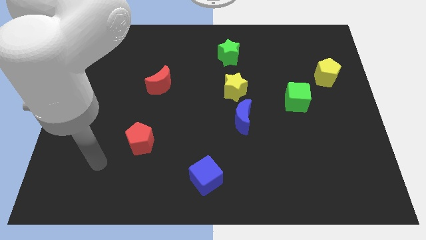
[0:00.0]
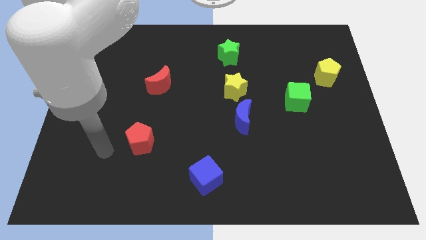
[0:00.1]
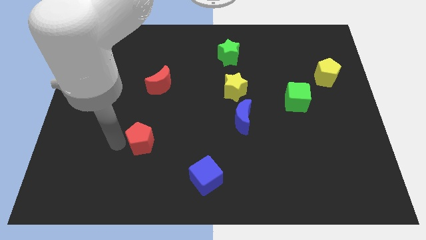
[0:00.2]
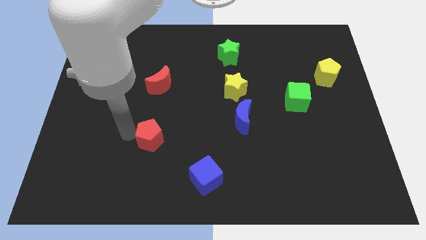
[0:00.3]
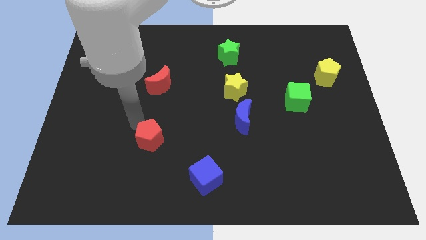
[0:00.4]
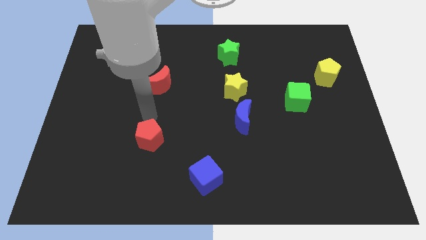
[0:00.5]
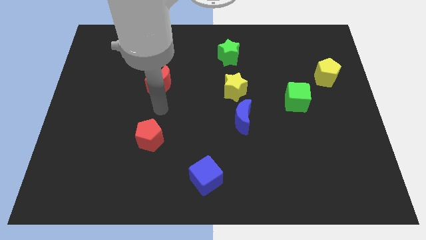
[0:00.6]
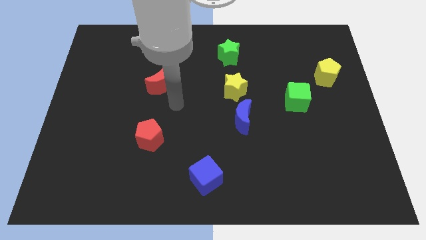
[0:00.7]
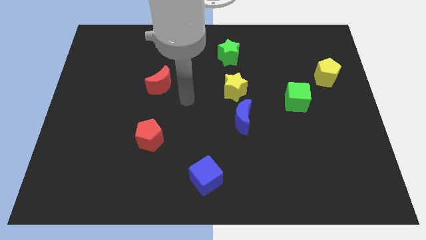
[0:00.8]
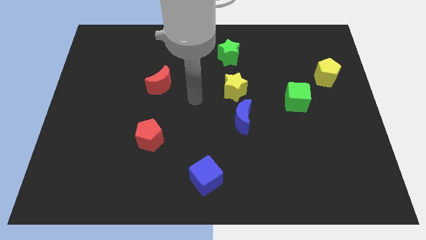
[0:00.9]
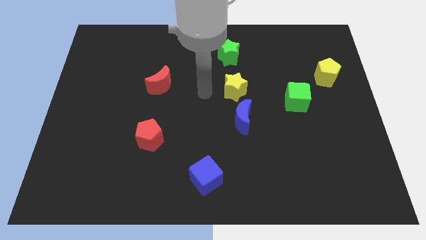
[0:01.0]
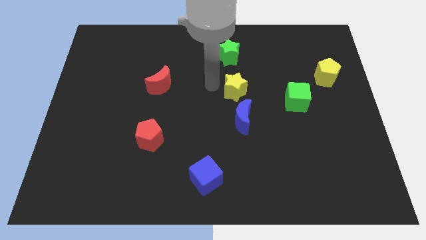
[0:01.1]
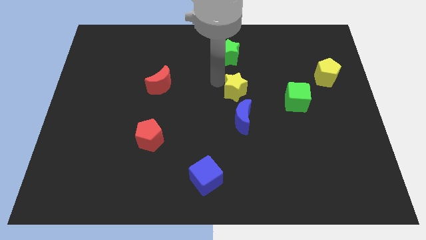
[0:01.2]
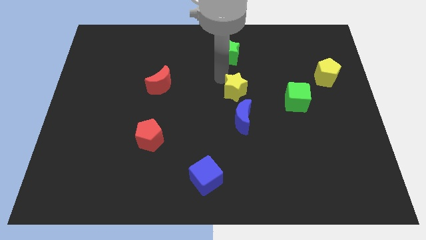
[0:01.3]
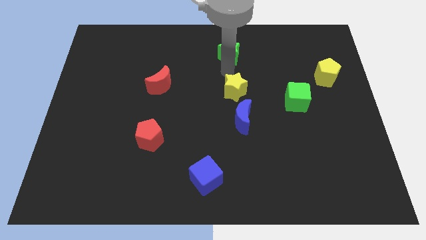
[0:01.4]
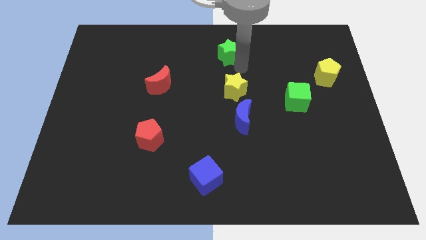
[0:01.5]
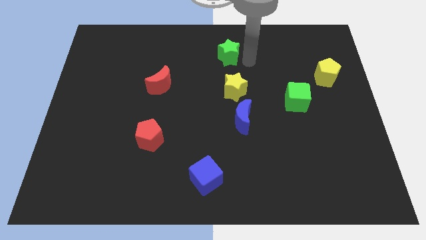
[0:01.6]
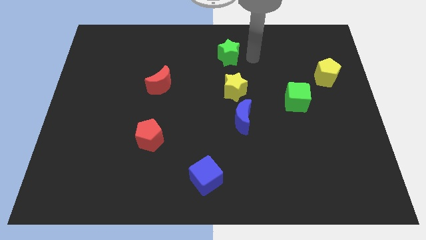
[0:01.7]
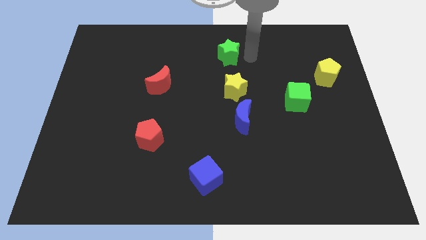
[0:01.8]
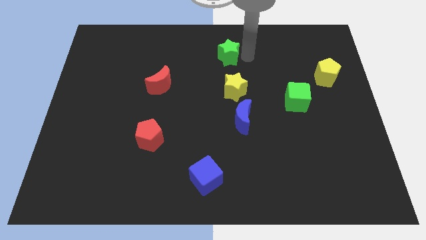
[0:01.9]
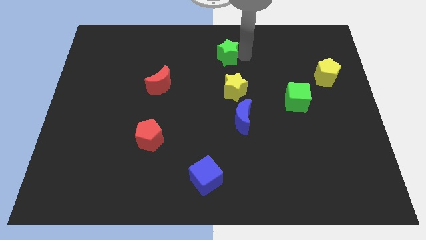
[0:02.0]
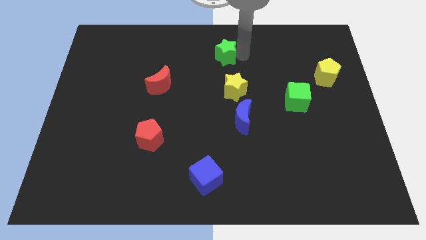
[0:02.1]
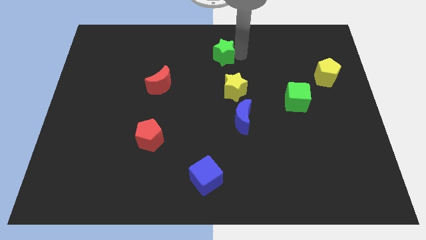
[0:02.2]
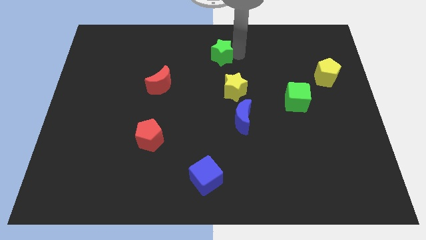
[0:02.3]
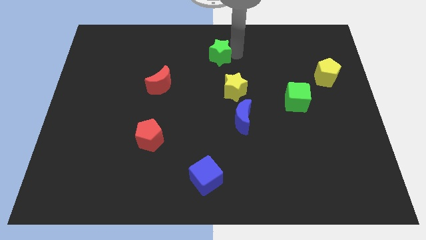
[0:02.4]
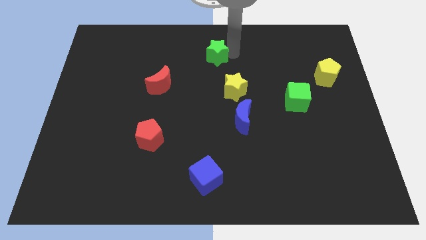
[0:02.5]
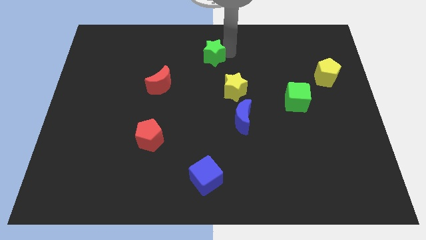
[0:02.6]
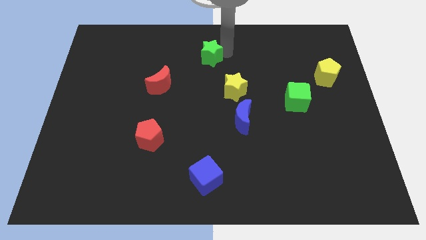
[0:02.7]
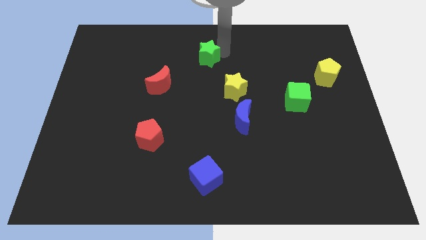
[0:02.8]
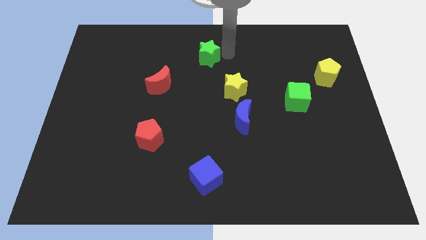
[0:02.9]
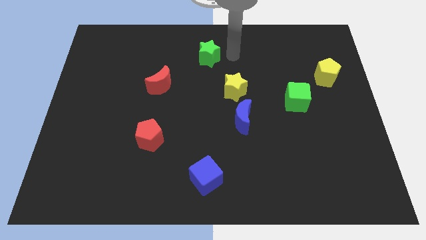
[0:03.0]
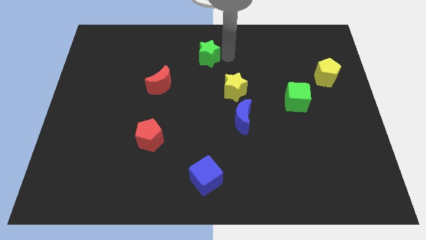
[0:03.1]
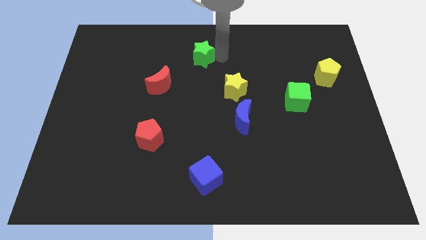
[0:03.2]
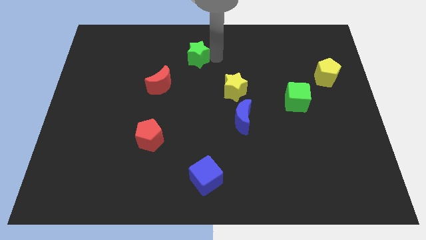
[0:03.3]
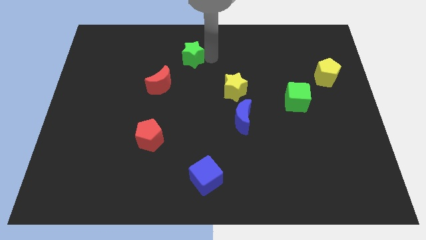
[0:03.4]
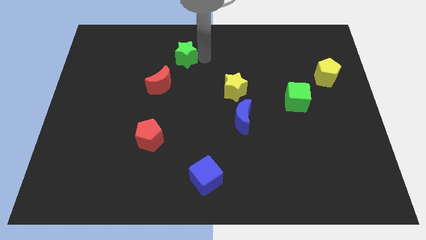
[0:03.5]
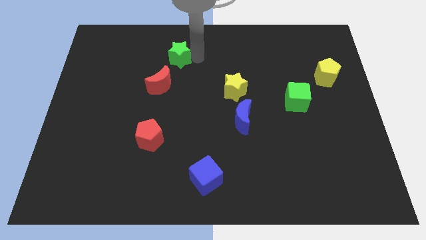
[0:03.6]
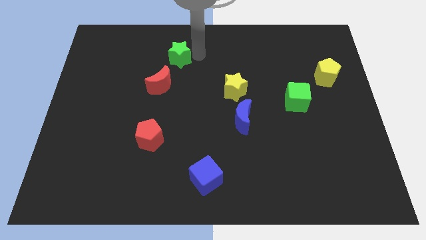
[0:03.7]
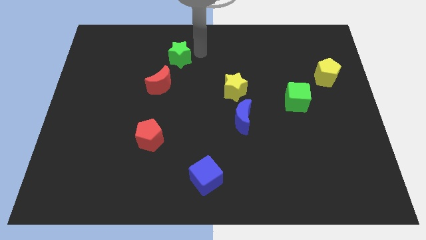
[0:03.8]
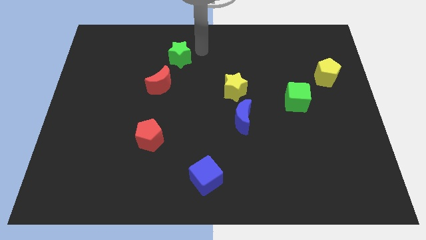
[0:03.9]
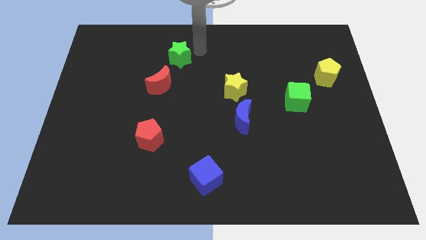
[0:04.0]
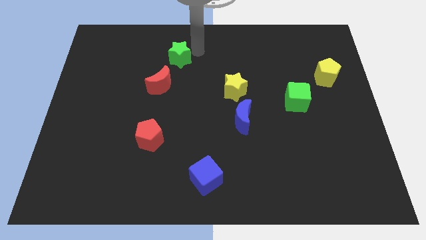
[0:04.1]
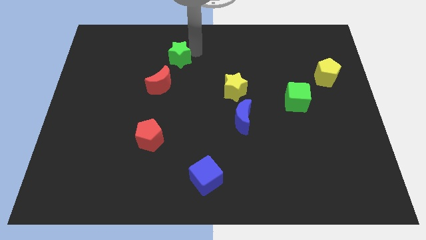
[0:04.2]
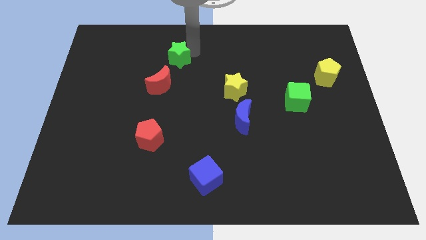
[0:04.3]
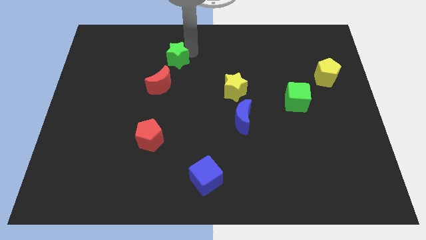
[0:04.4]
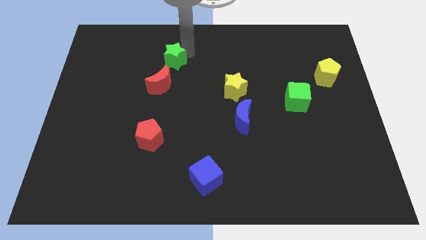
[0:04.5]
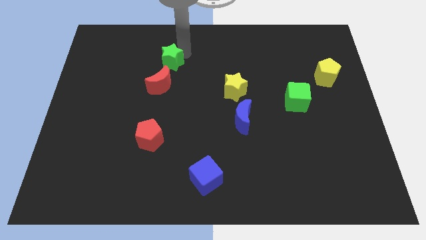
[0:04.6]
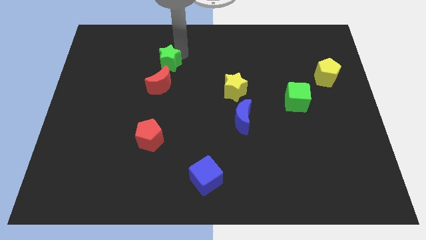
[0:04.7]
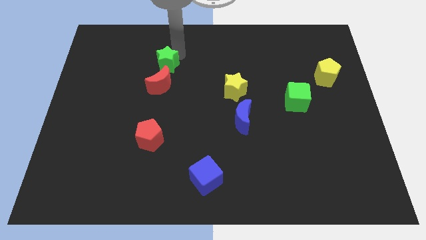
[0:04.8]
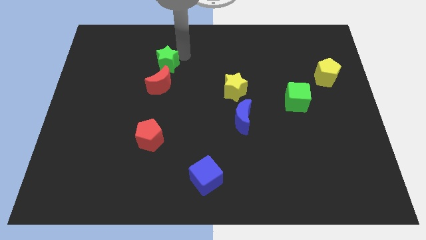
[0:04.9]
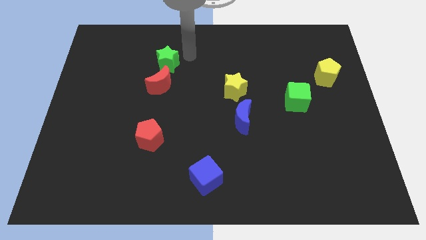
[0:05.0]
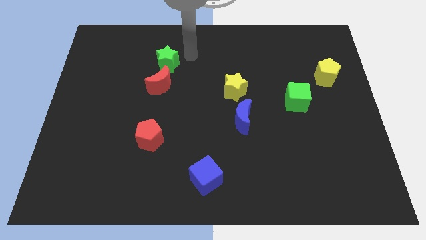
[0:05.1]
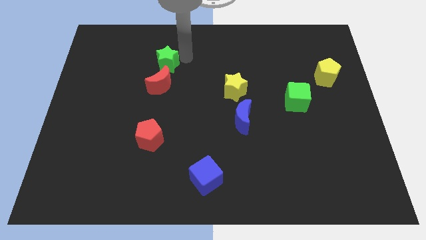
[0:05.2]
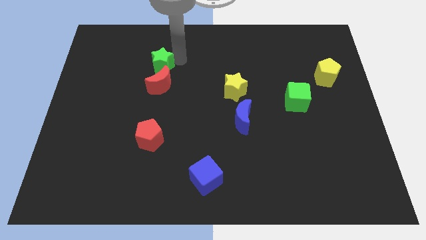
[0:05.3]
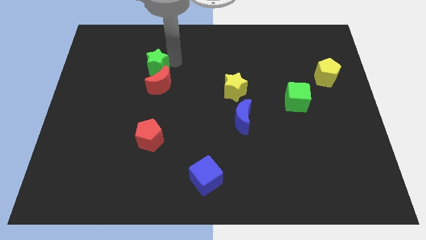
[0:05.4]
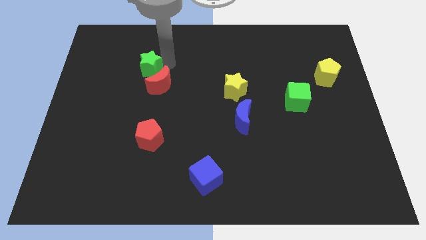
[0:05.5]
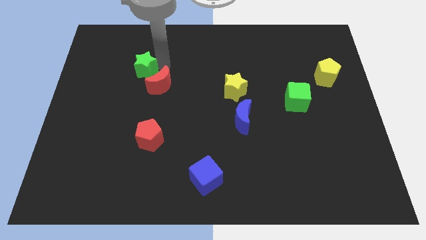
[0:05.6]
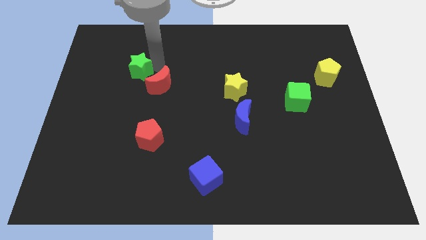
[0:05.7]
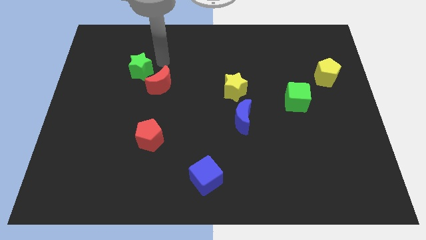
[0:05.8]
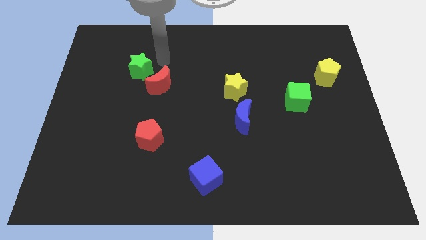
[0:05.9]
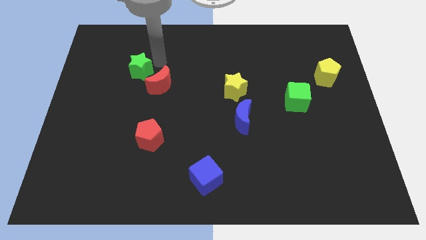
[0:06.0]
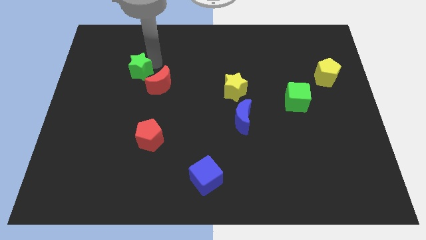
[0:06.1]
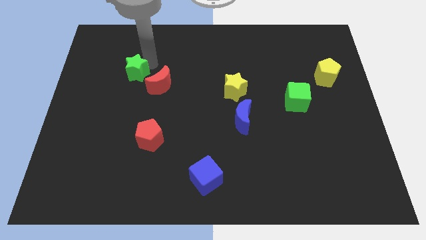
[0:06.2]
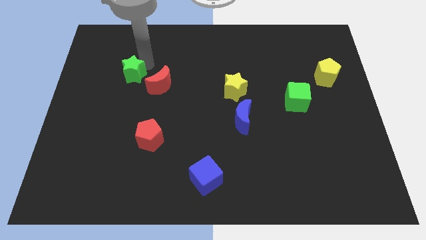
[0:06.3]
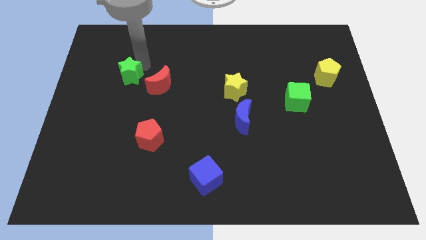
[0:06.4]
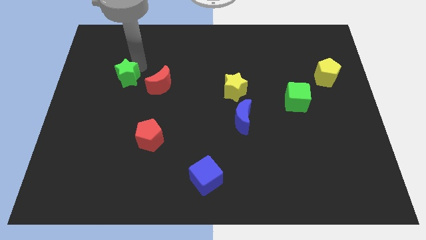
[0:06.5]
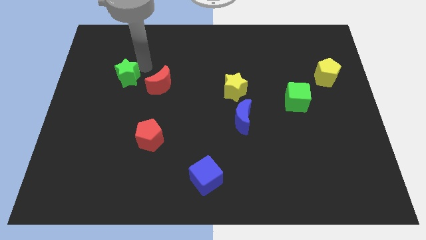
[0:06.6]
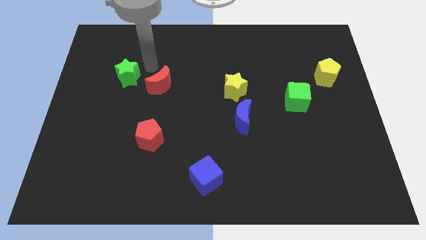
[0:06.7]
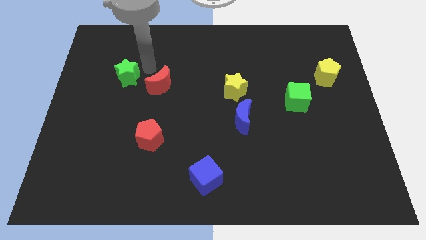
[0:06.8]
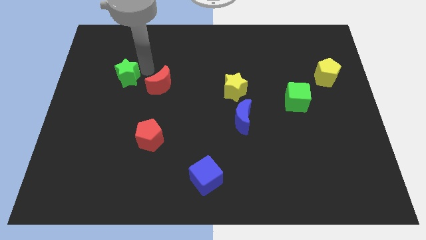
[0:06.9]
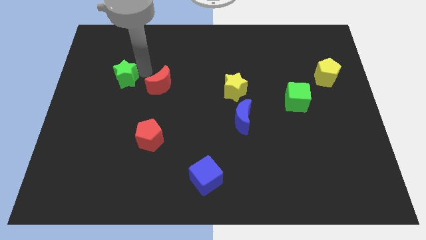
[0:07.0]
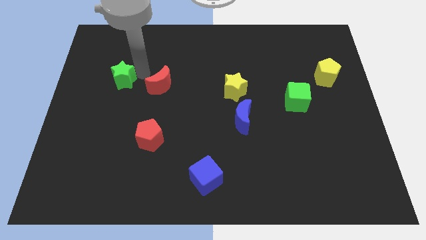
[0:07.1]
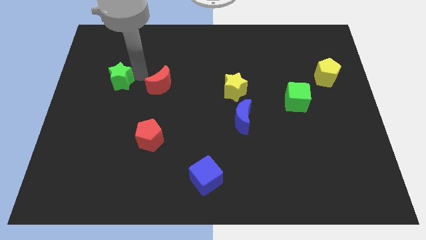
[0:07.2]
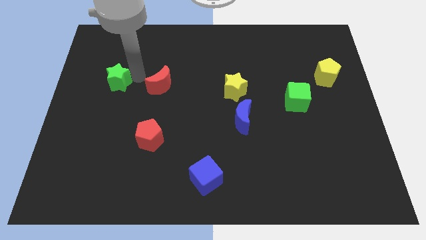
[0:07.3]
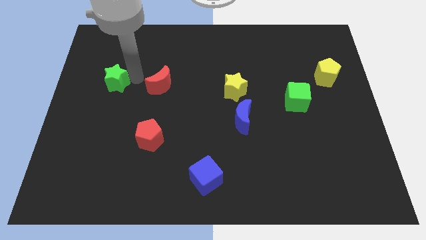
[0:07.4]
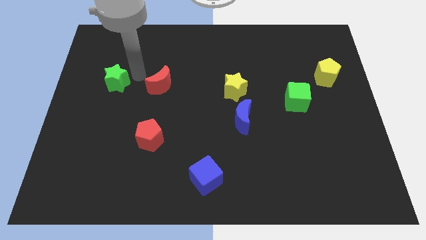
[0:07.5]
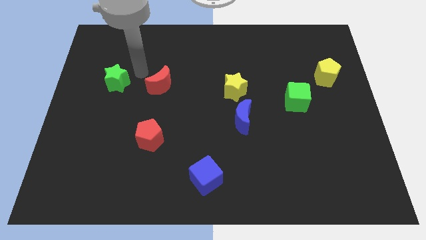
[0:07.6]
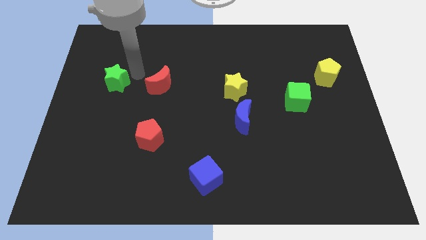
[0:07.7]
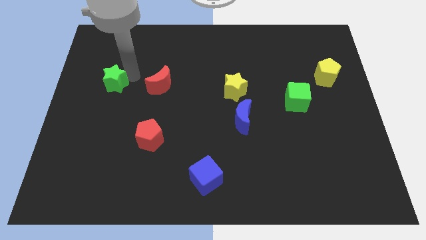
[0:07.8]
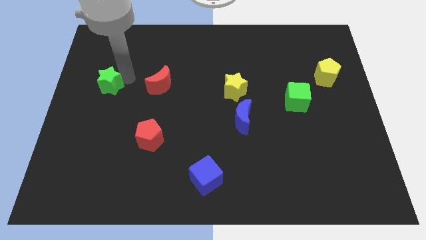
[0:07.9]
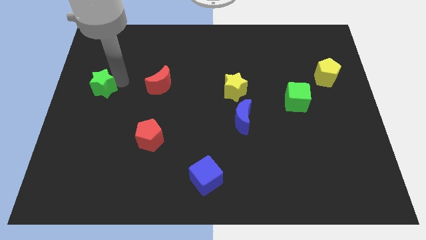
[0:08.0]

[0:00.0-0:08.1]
slide the green star to the left side of the board
